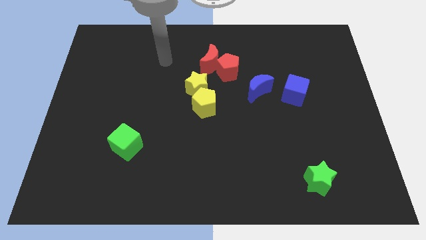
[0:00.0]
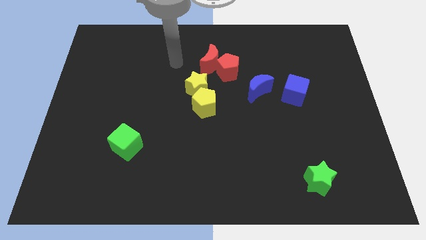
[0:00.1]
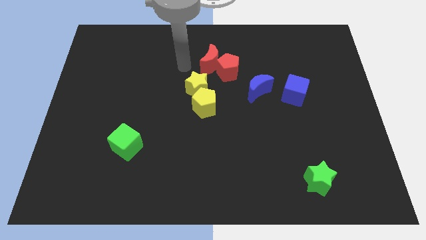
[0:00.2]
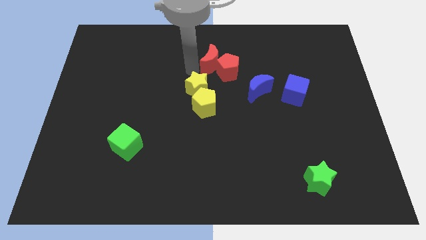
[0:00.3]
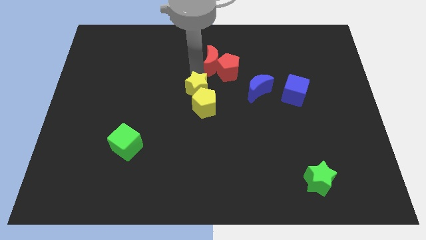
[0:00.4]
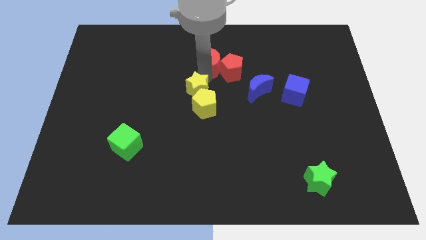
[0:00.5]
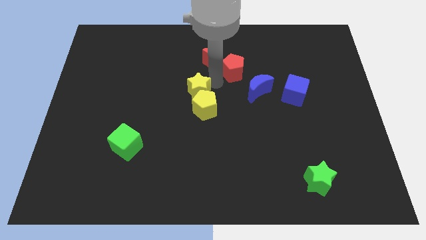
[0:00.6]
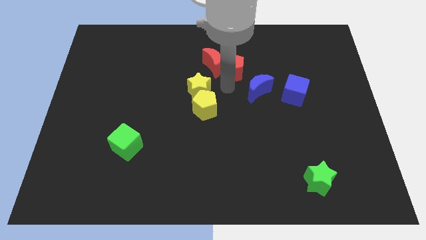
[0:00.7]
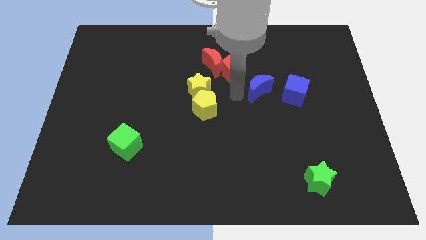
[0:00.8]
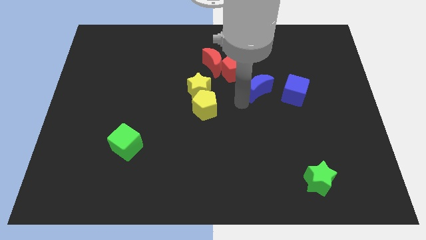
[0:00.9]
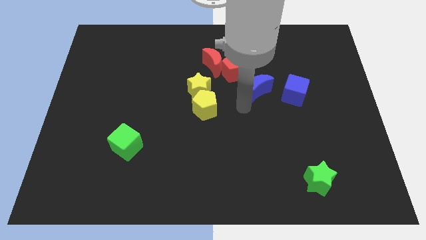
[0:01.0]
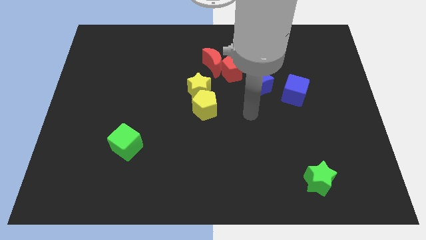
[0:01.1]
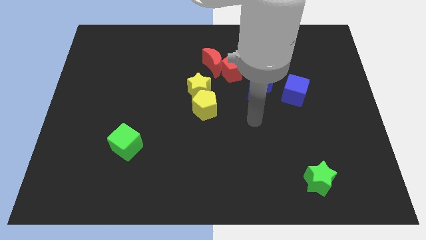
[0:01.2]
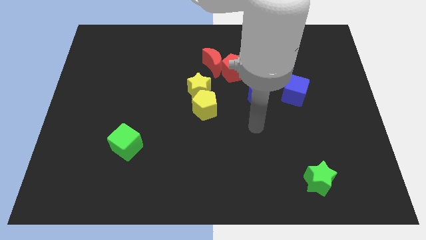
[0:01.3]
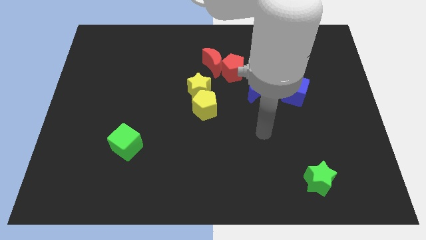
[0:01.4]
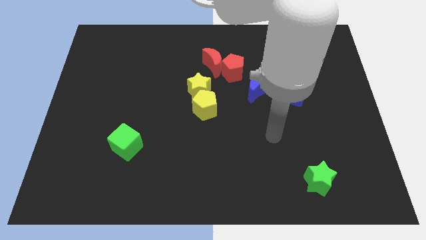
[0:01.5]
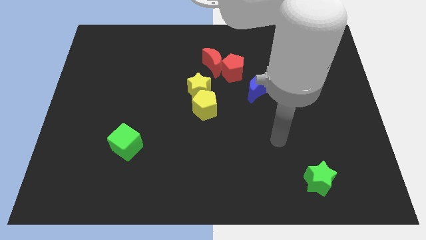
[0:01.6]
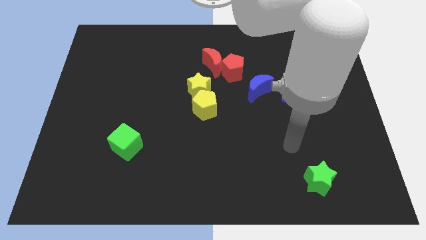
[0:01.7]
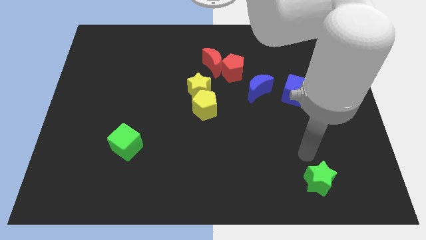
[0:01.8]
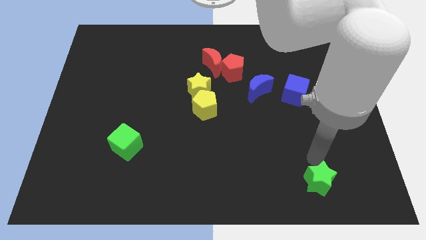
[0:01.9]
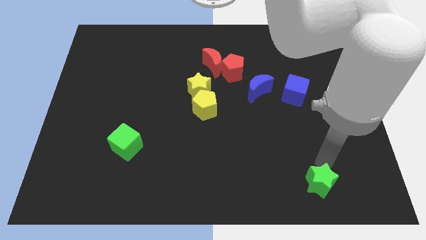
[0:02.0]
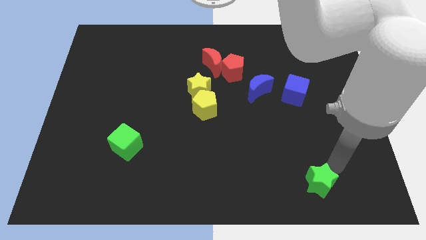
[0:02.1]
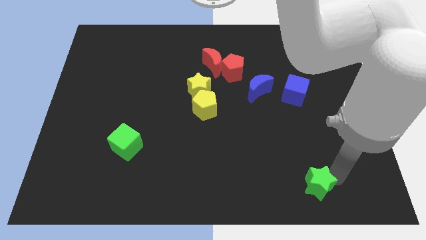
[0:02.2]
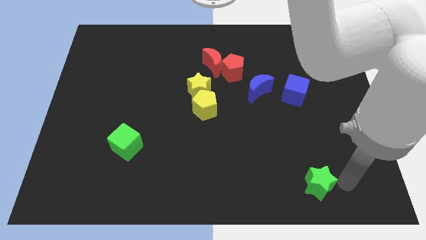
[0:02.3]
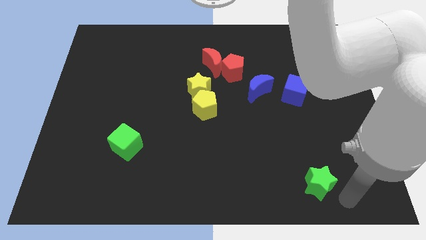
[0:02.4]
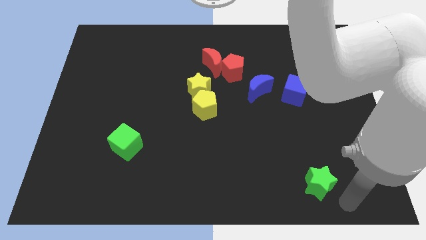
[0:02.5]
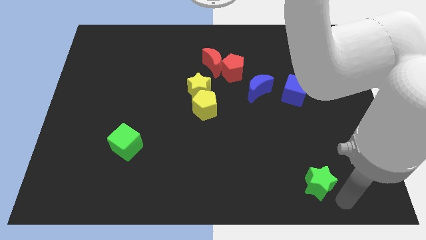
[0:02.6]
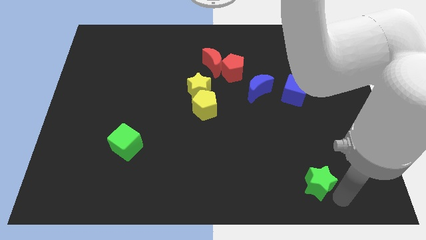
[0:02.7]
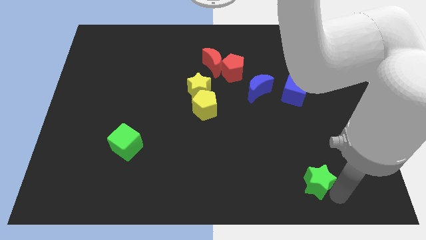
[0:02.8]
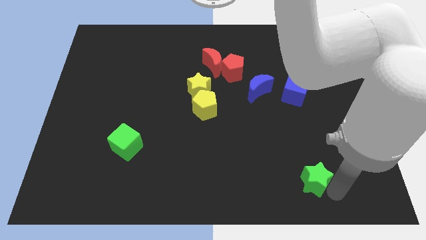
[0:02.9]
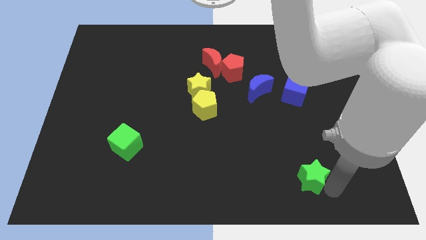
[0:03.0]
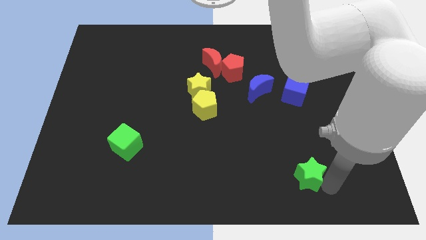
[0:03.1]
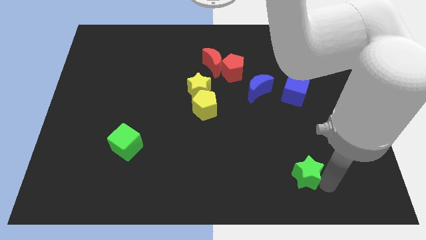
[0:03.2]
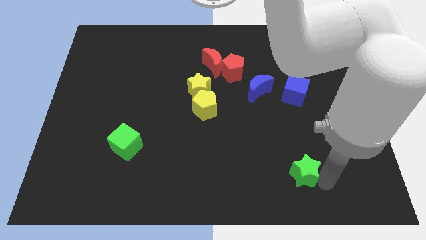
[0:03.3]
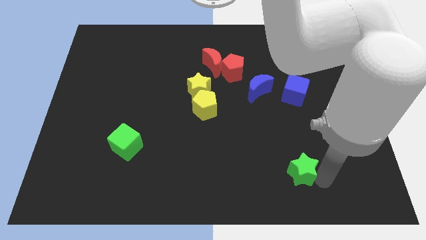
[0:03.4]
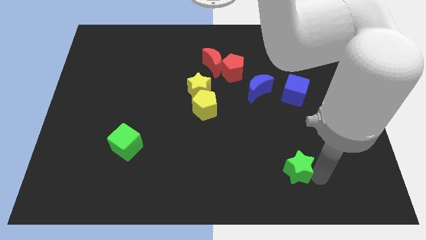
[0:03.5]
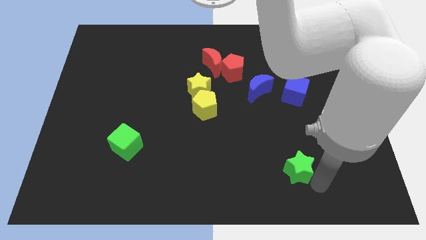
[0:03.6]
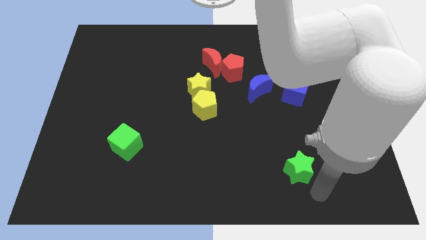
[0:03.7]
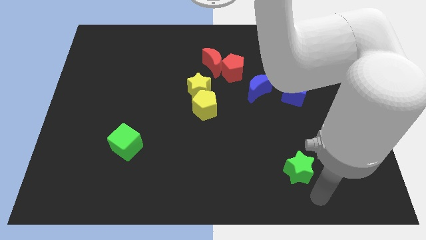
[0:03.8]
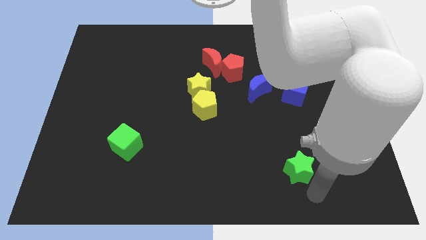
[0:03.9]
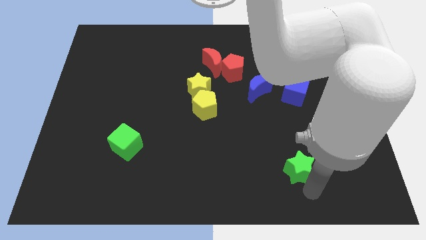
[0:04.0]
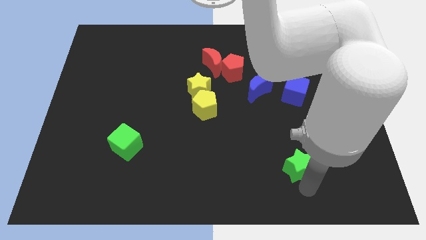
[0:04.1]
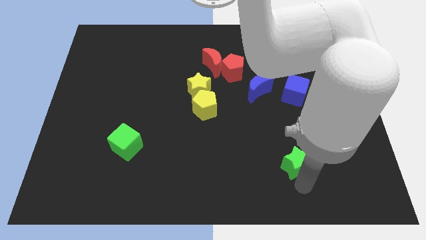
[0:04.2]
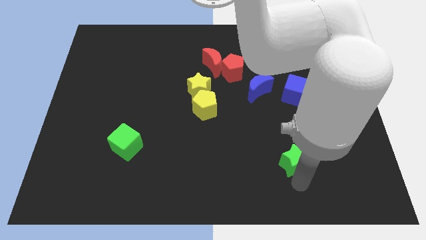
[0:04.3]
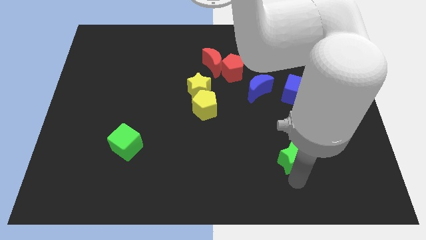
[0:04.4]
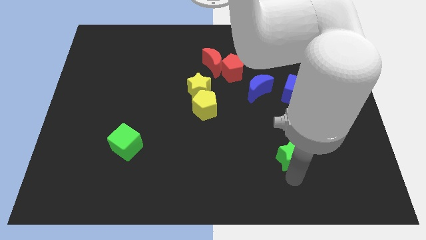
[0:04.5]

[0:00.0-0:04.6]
slightly slide the green star diagonally upwards and to the left

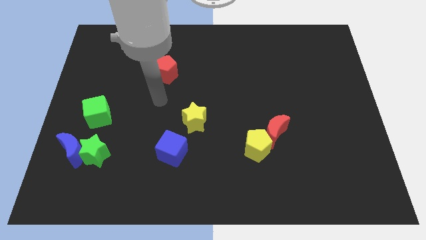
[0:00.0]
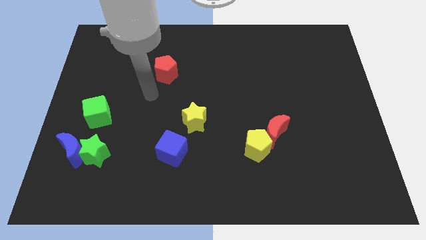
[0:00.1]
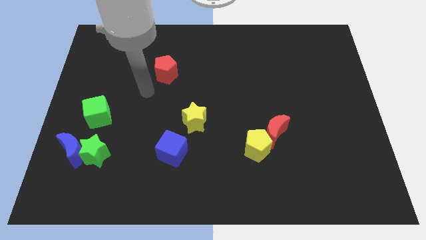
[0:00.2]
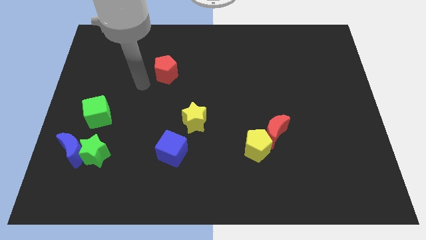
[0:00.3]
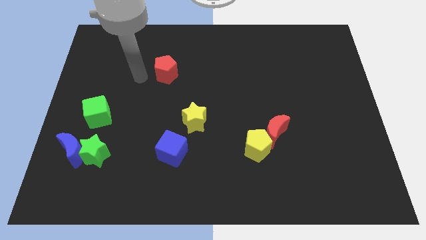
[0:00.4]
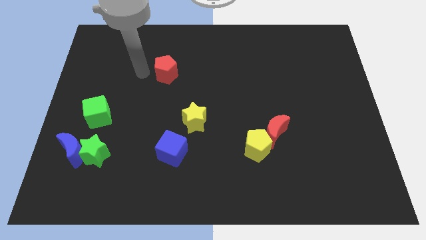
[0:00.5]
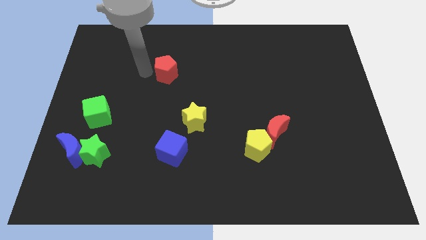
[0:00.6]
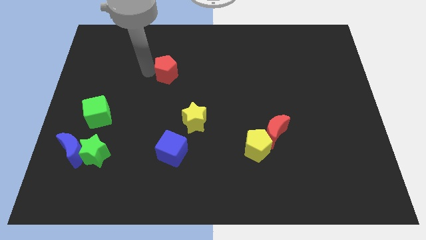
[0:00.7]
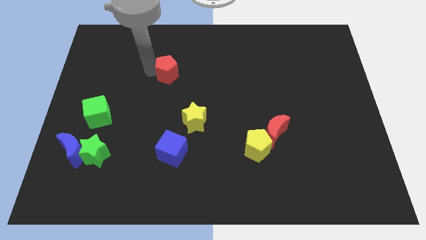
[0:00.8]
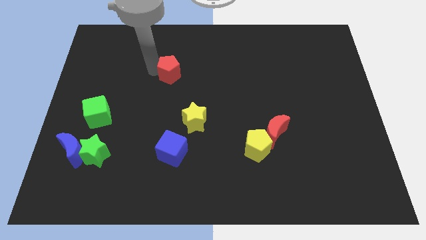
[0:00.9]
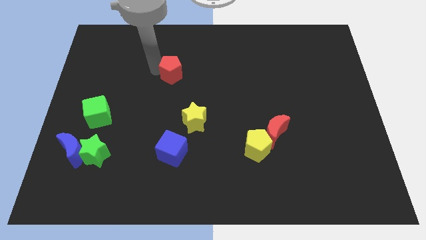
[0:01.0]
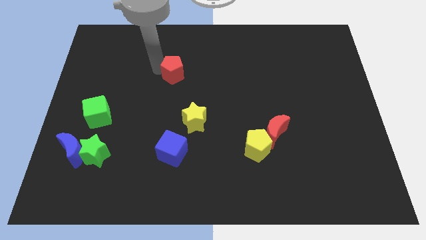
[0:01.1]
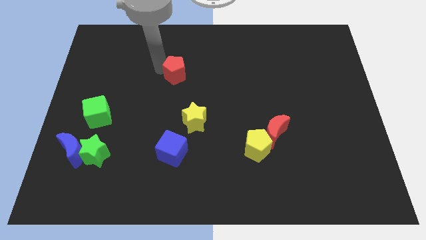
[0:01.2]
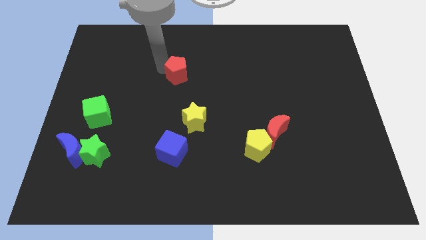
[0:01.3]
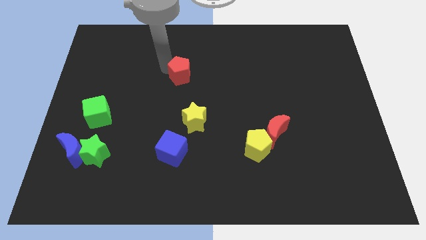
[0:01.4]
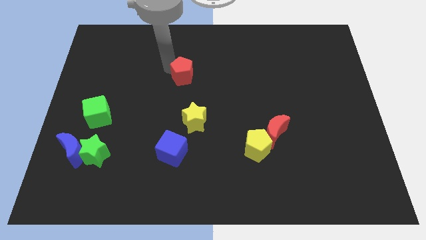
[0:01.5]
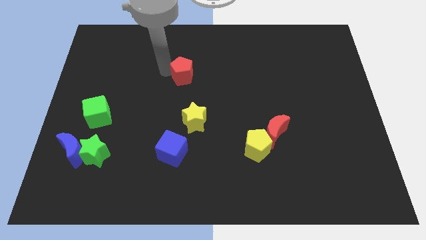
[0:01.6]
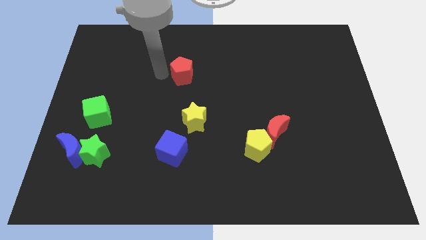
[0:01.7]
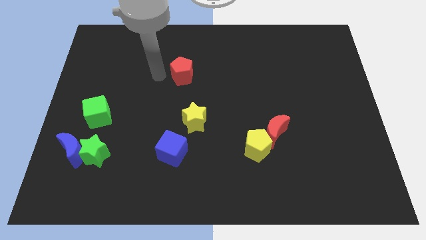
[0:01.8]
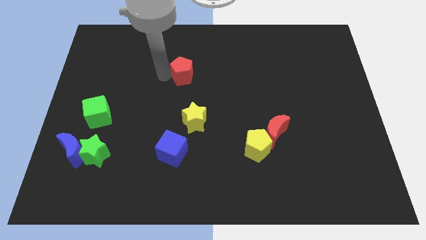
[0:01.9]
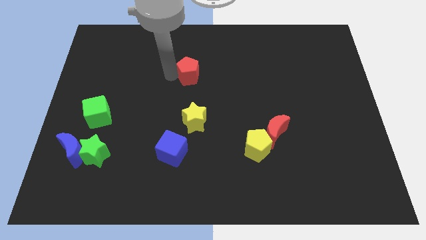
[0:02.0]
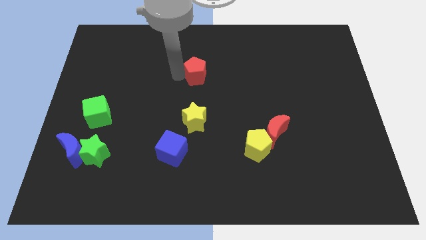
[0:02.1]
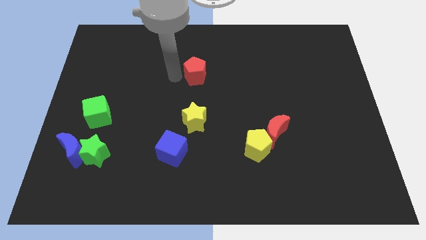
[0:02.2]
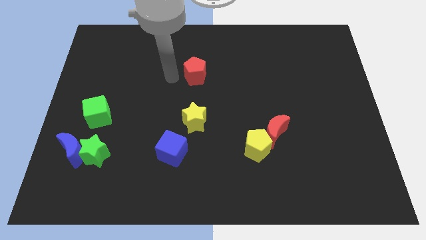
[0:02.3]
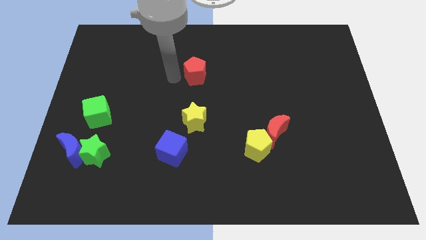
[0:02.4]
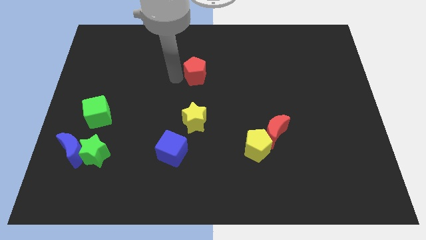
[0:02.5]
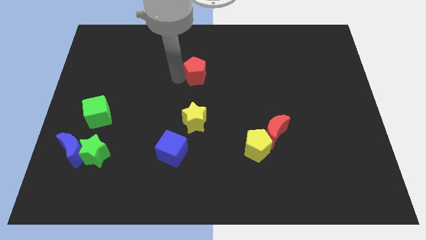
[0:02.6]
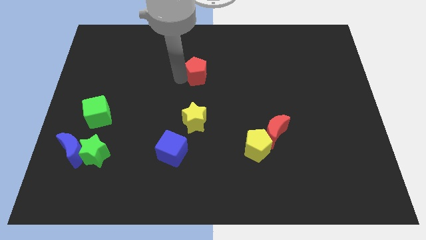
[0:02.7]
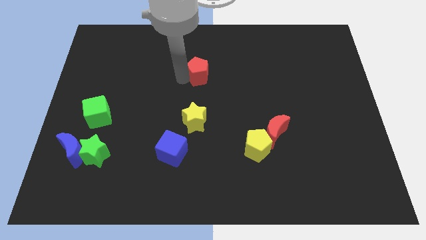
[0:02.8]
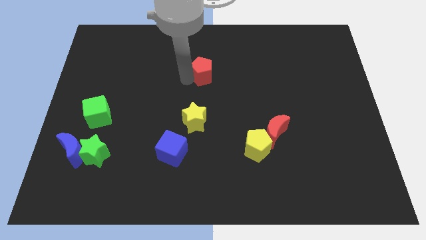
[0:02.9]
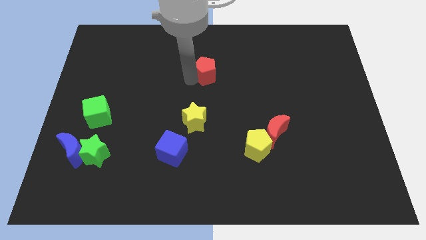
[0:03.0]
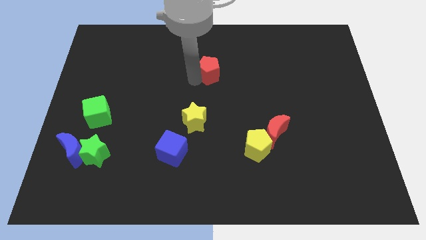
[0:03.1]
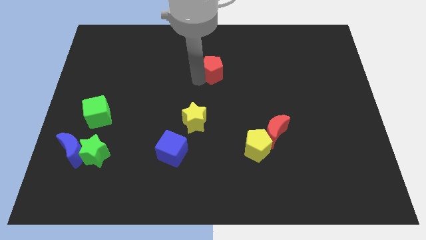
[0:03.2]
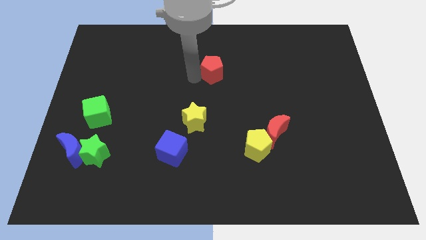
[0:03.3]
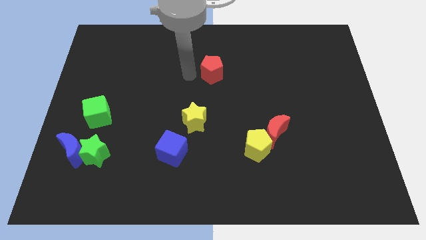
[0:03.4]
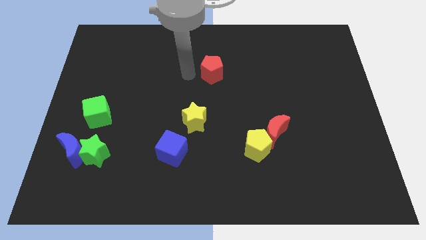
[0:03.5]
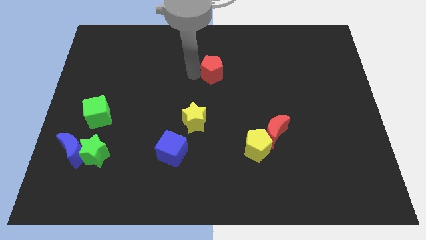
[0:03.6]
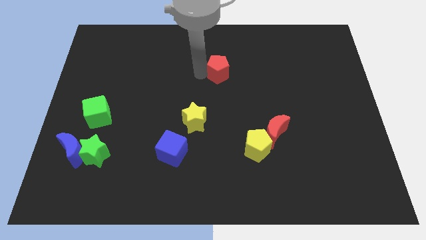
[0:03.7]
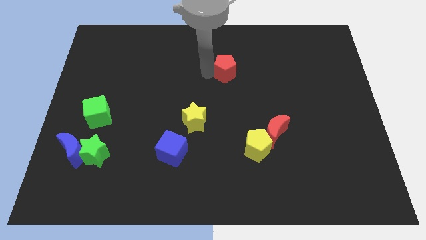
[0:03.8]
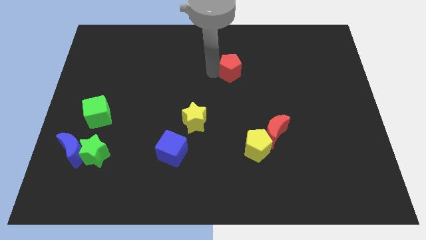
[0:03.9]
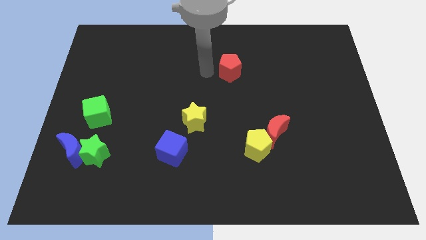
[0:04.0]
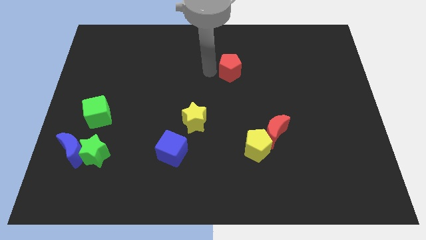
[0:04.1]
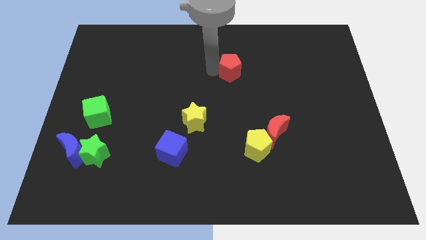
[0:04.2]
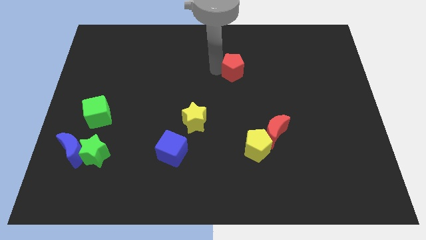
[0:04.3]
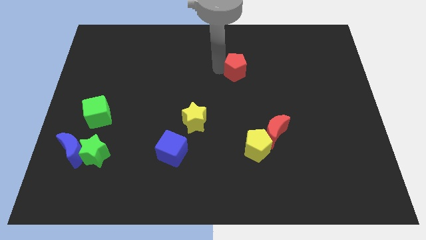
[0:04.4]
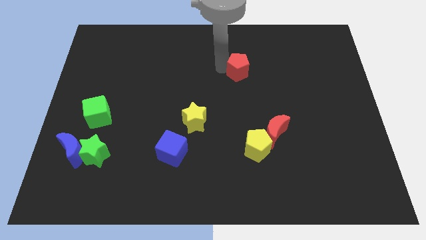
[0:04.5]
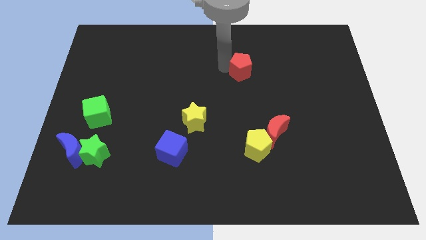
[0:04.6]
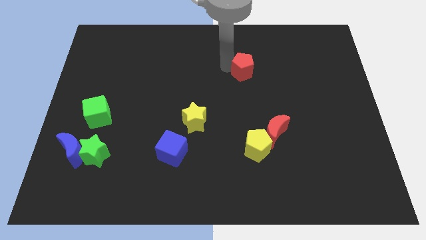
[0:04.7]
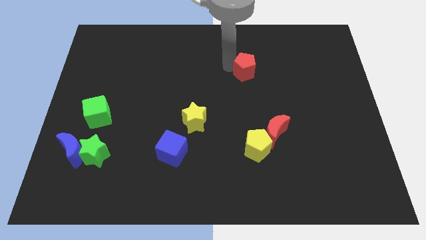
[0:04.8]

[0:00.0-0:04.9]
move the red pentagon to the right
